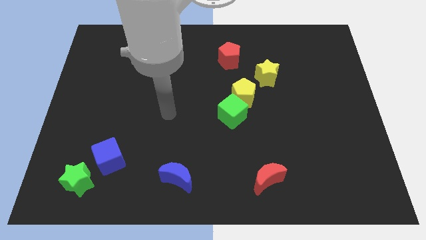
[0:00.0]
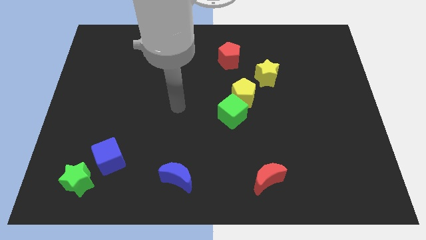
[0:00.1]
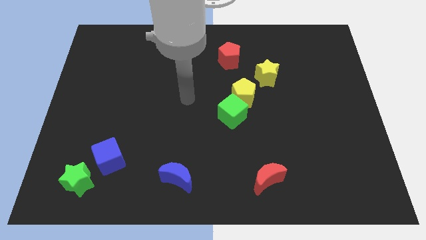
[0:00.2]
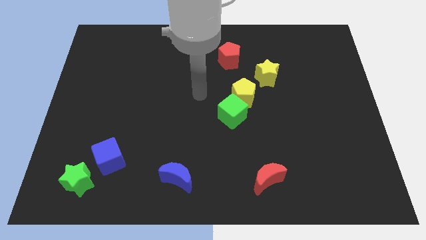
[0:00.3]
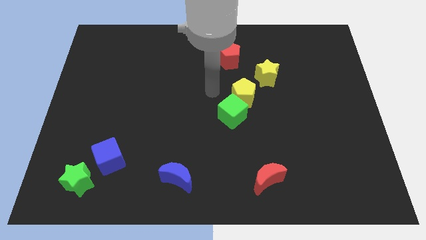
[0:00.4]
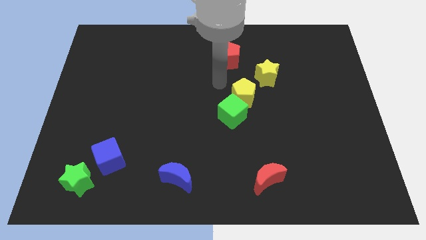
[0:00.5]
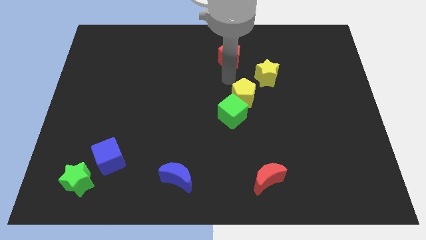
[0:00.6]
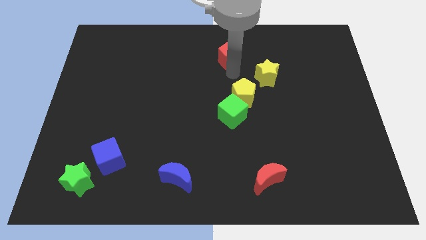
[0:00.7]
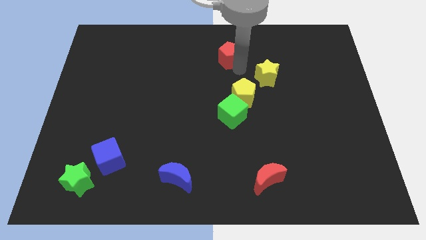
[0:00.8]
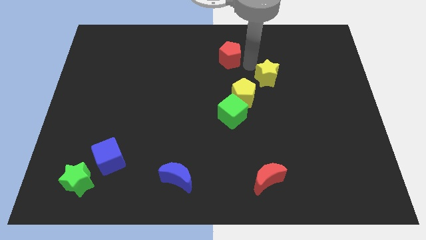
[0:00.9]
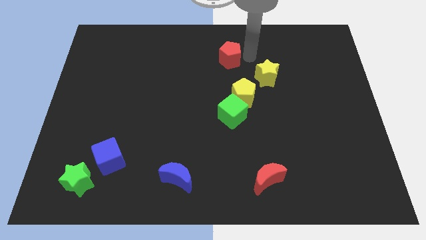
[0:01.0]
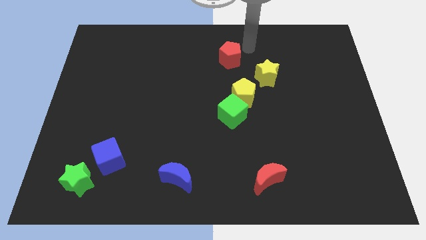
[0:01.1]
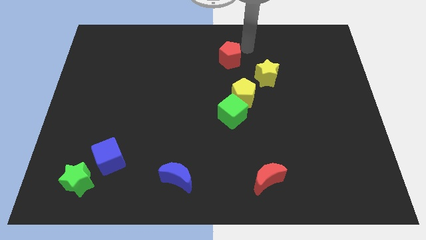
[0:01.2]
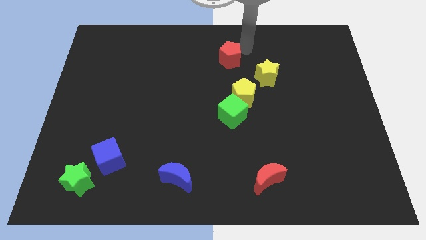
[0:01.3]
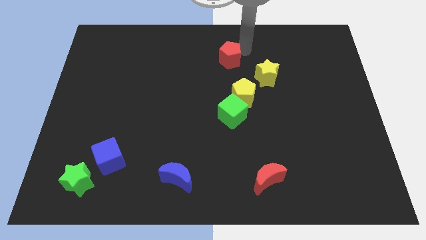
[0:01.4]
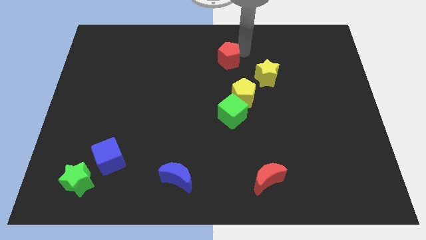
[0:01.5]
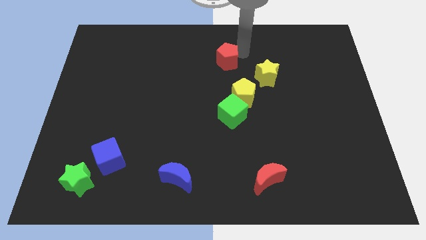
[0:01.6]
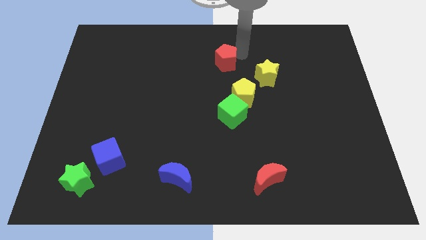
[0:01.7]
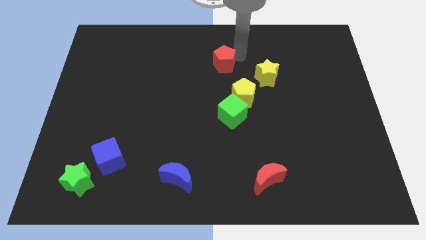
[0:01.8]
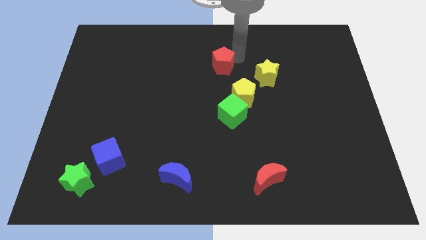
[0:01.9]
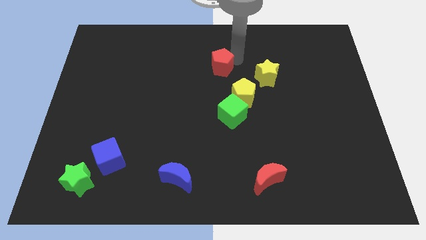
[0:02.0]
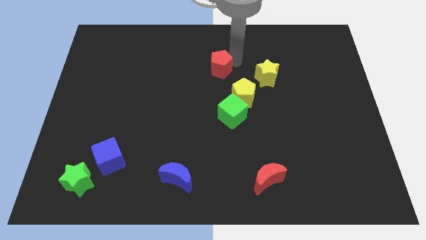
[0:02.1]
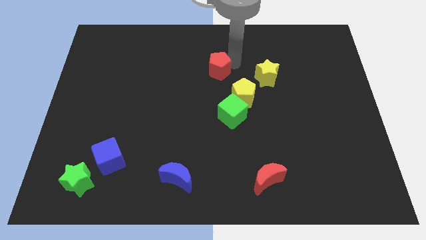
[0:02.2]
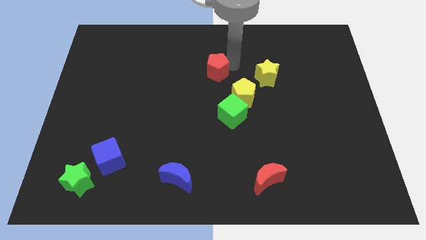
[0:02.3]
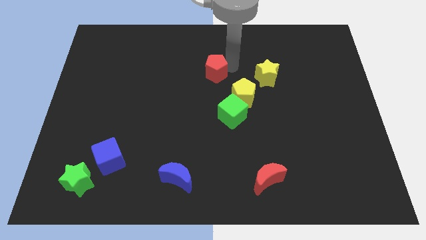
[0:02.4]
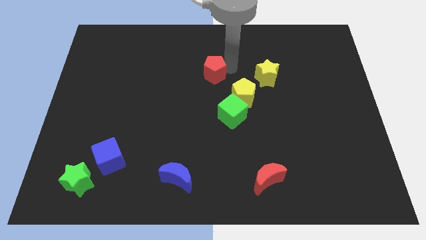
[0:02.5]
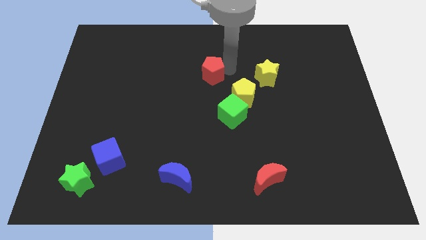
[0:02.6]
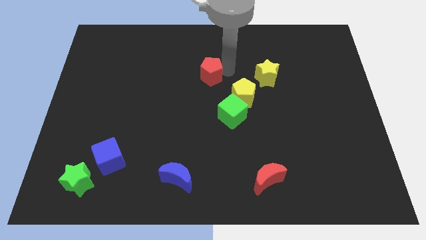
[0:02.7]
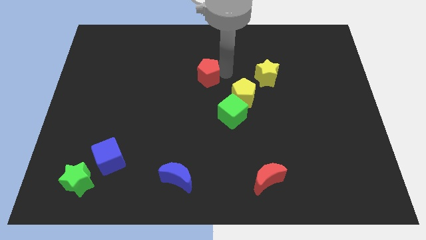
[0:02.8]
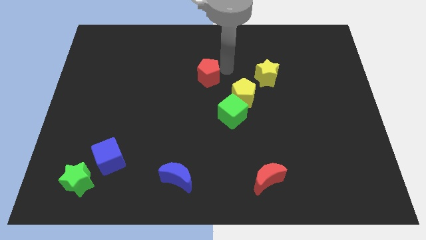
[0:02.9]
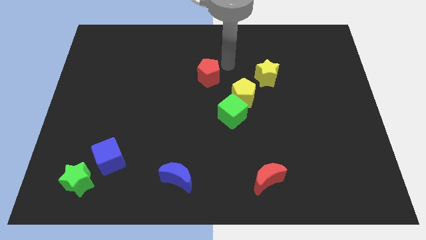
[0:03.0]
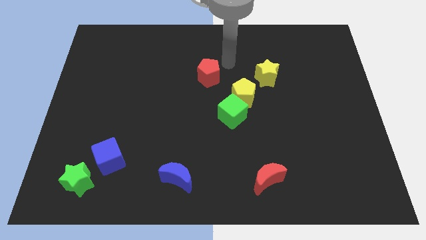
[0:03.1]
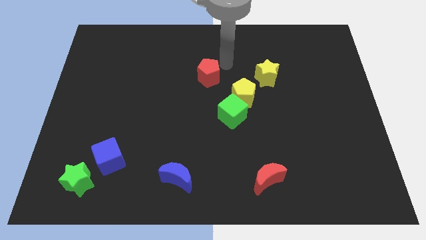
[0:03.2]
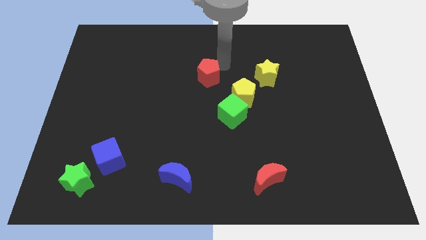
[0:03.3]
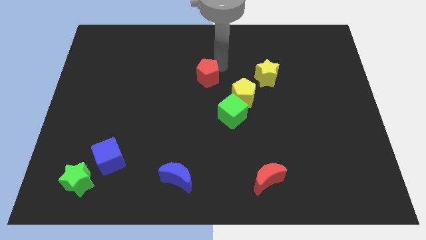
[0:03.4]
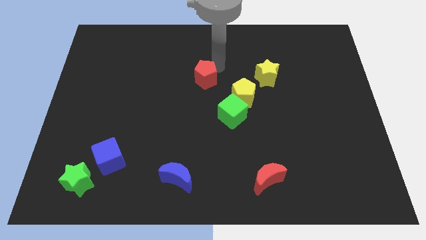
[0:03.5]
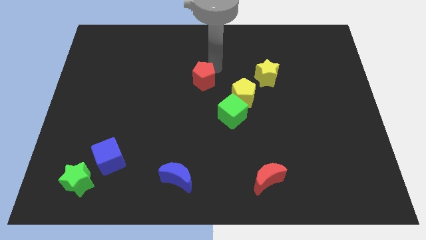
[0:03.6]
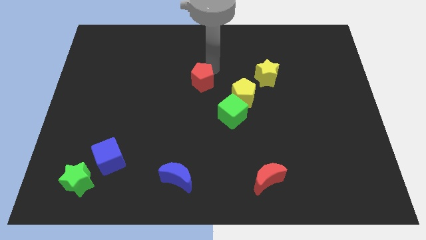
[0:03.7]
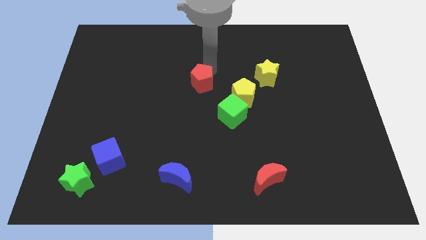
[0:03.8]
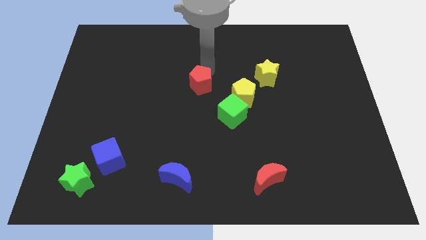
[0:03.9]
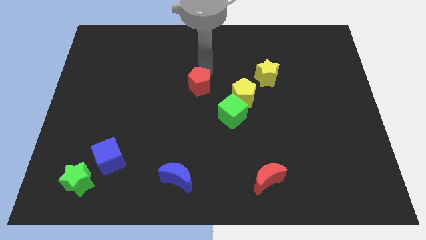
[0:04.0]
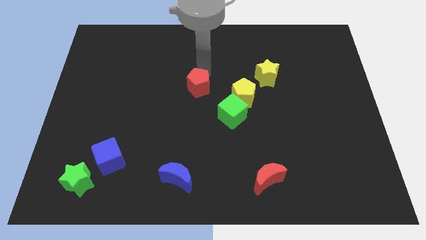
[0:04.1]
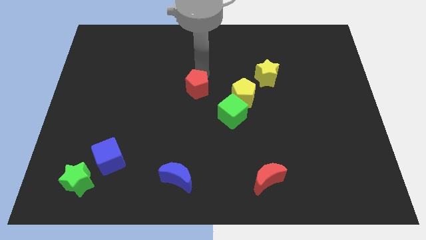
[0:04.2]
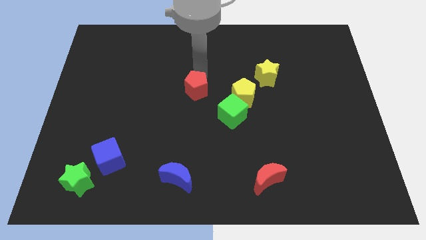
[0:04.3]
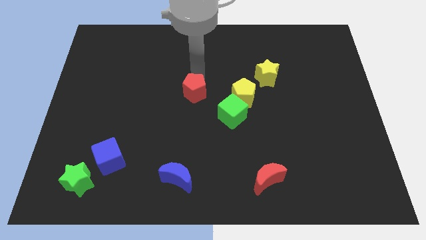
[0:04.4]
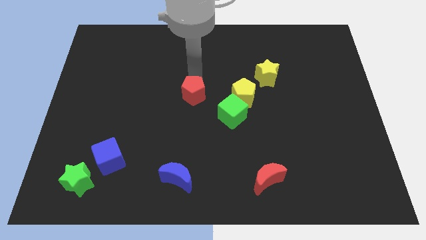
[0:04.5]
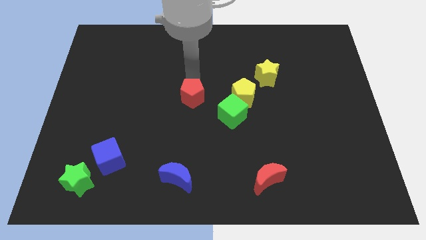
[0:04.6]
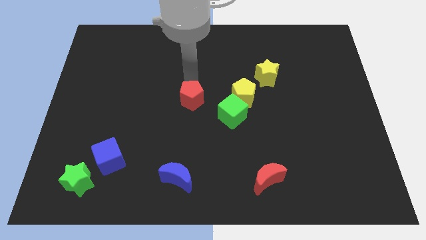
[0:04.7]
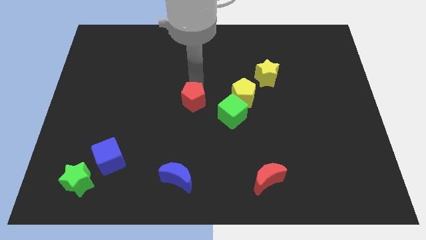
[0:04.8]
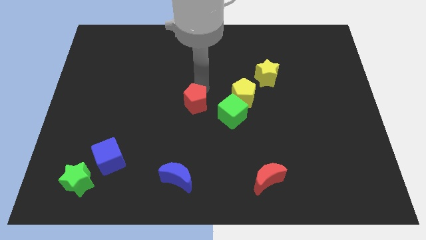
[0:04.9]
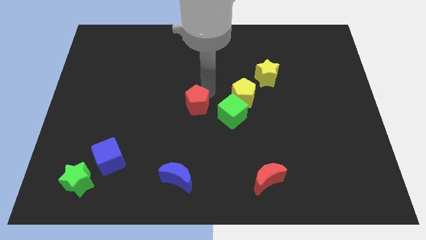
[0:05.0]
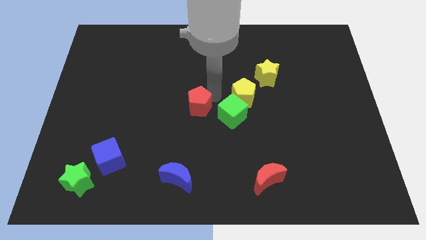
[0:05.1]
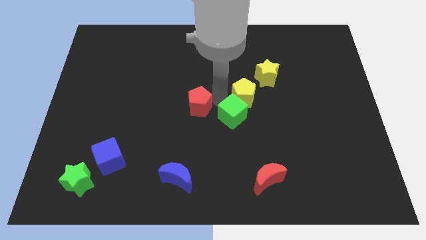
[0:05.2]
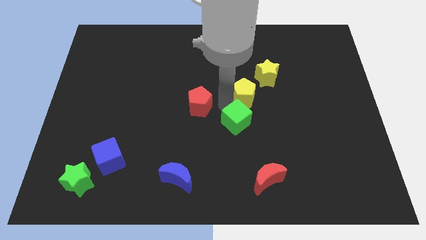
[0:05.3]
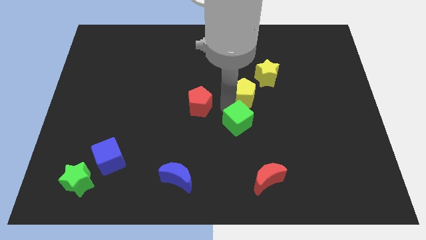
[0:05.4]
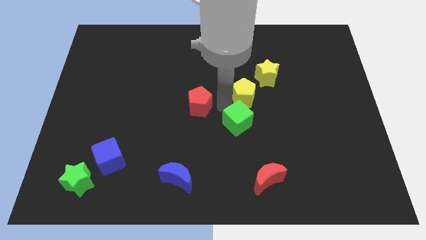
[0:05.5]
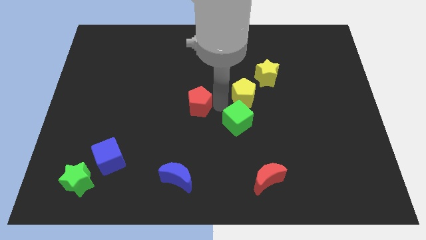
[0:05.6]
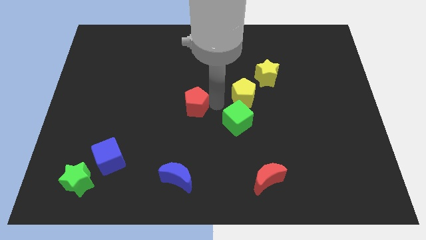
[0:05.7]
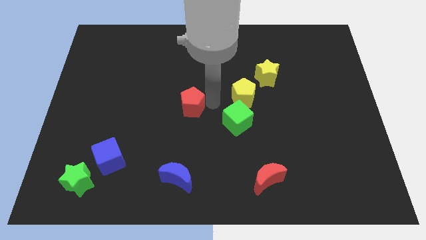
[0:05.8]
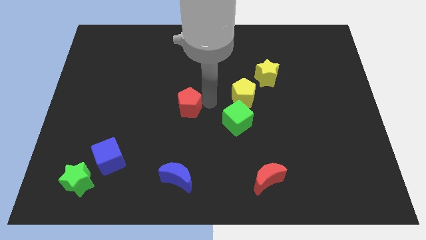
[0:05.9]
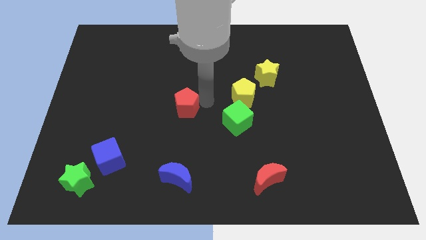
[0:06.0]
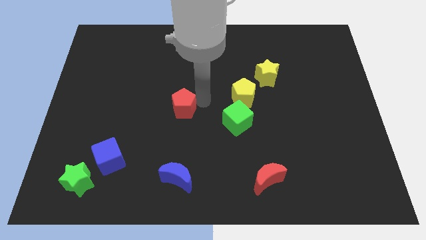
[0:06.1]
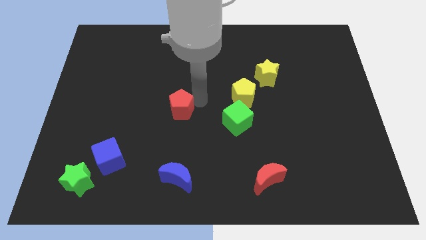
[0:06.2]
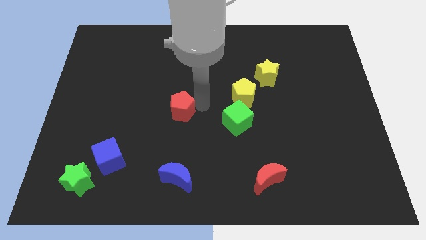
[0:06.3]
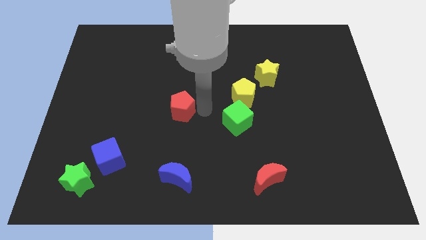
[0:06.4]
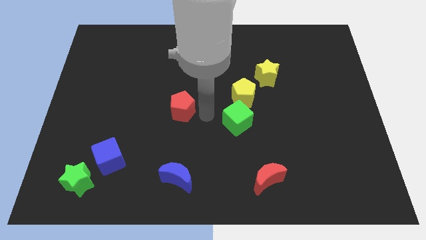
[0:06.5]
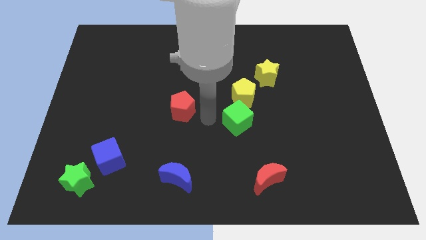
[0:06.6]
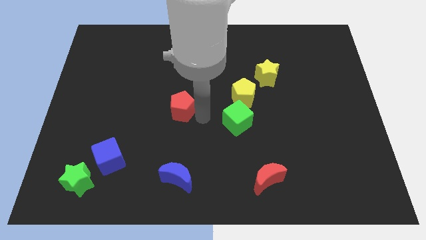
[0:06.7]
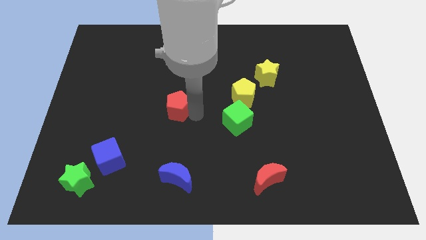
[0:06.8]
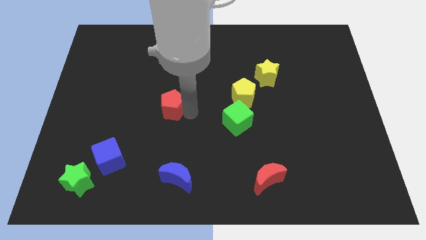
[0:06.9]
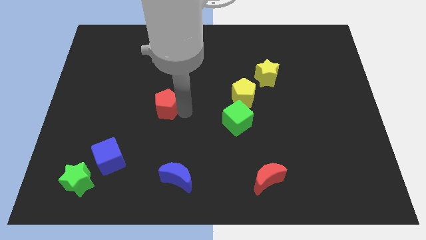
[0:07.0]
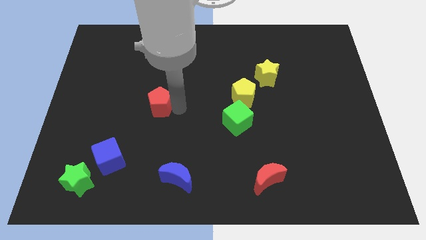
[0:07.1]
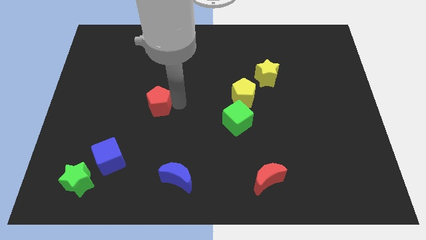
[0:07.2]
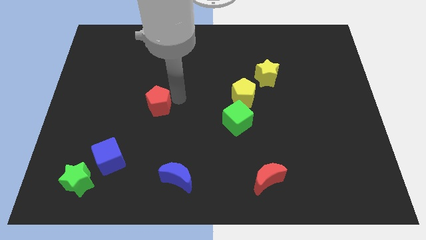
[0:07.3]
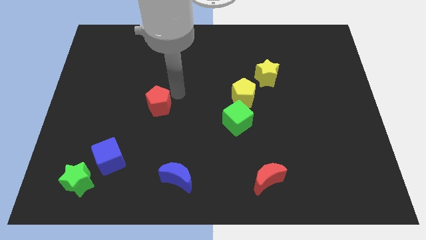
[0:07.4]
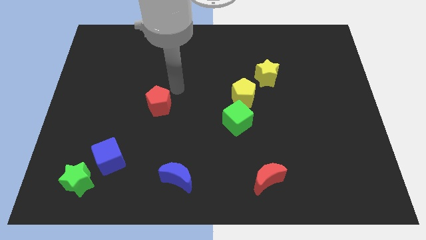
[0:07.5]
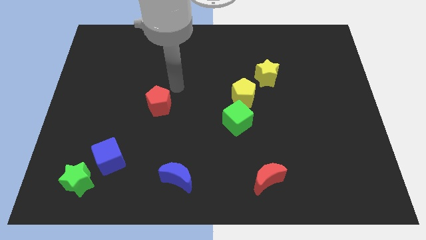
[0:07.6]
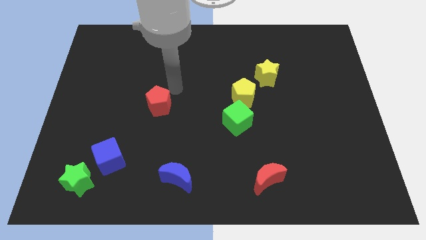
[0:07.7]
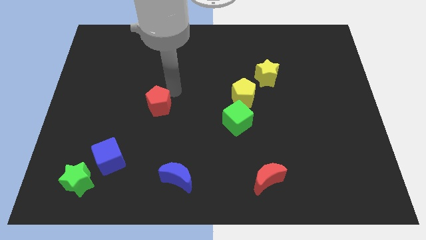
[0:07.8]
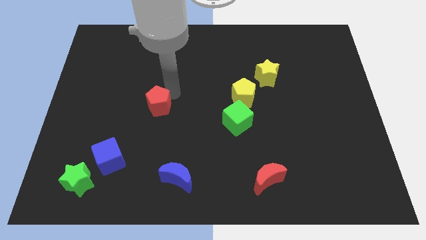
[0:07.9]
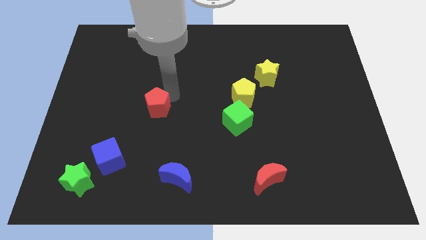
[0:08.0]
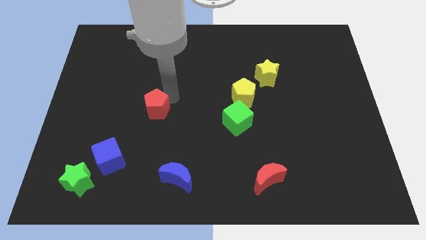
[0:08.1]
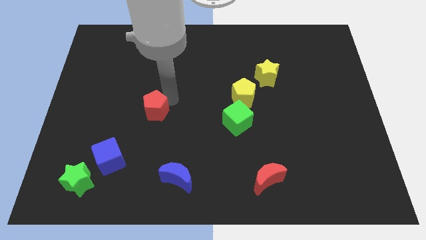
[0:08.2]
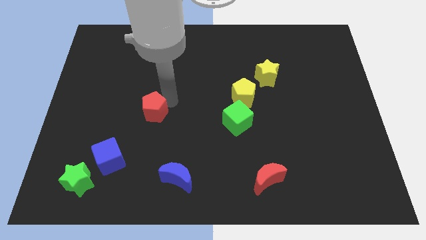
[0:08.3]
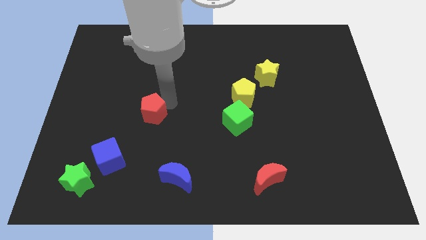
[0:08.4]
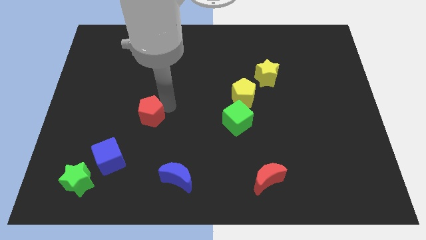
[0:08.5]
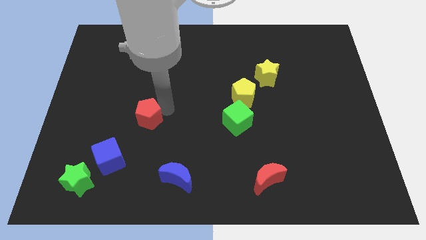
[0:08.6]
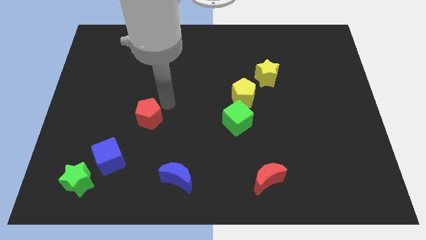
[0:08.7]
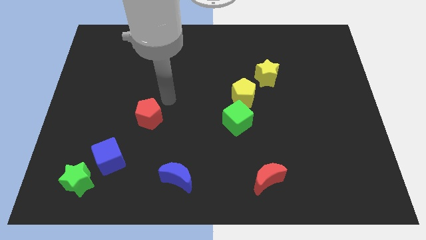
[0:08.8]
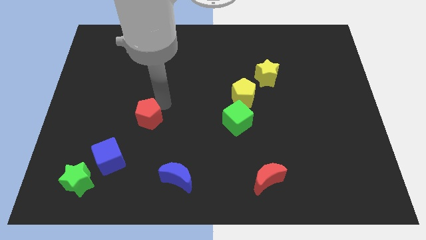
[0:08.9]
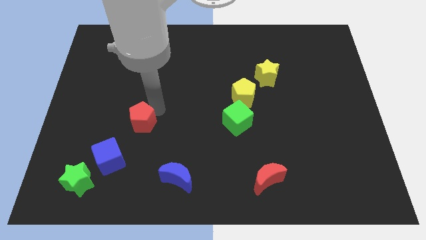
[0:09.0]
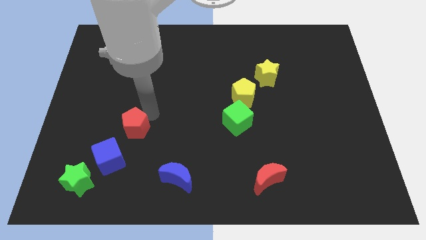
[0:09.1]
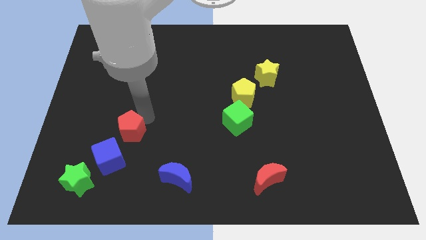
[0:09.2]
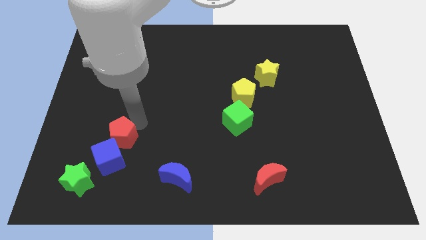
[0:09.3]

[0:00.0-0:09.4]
push the red pentagon to the blue cube
